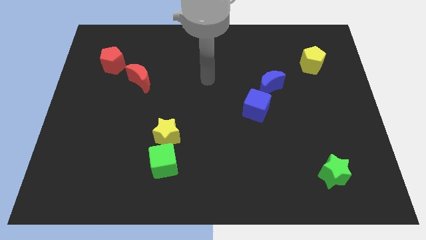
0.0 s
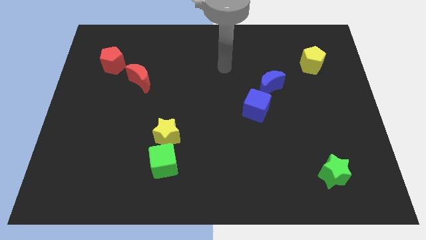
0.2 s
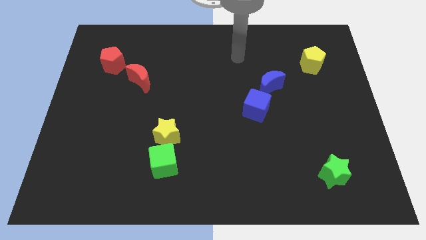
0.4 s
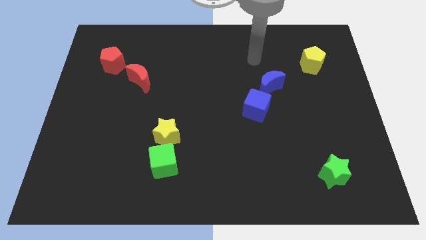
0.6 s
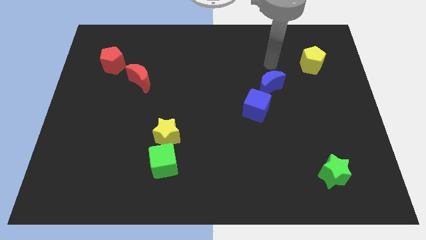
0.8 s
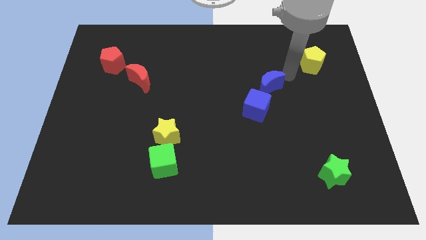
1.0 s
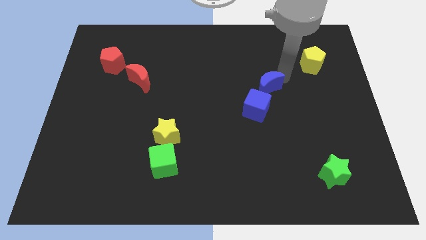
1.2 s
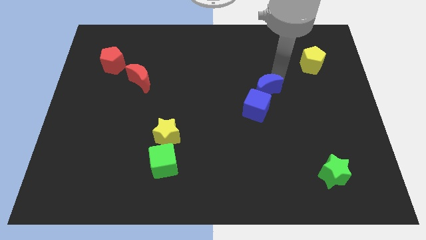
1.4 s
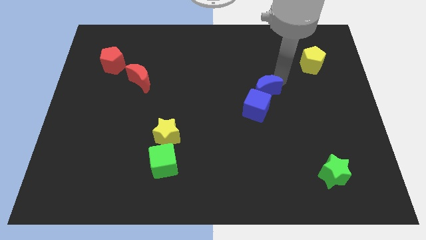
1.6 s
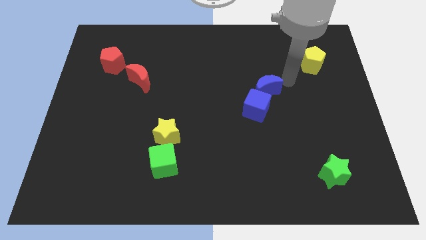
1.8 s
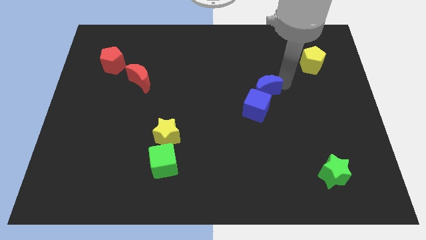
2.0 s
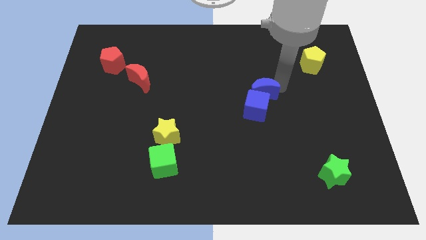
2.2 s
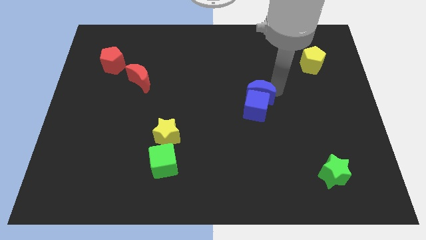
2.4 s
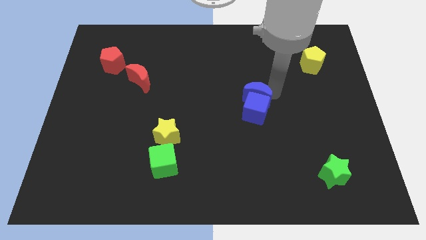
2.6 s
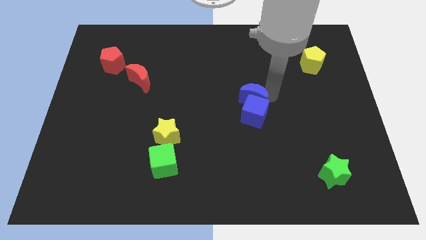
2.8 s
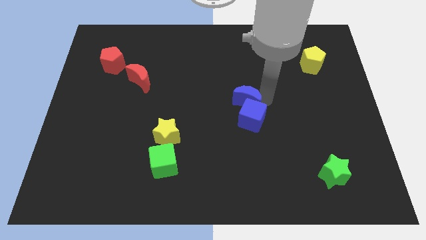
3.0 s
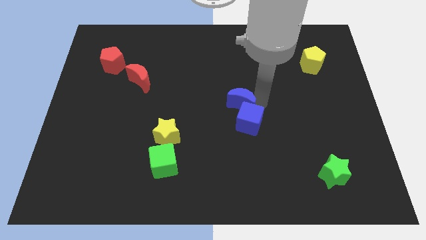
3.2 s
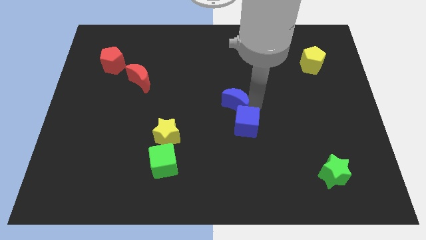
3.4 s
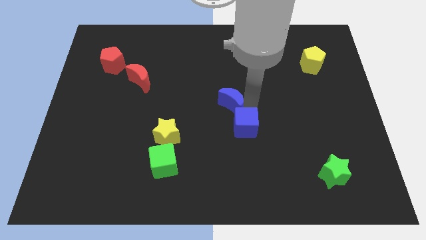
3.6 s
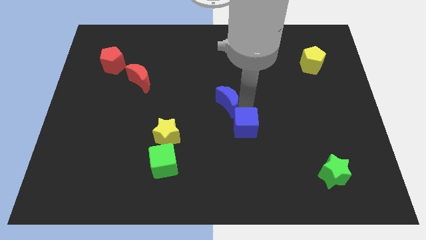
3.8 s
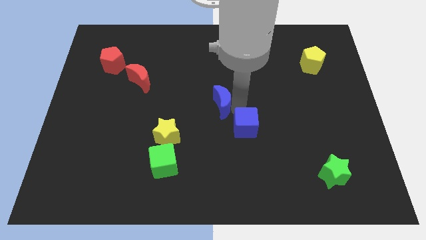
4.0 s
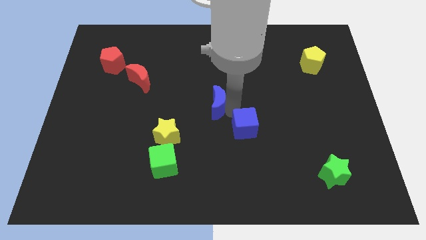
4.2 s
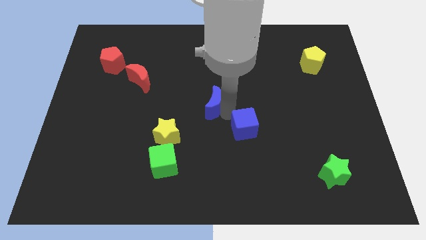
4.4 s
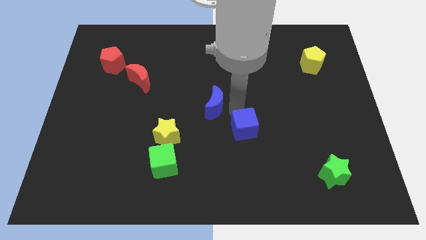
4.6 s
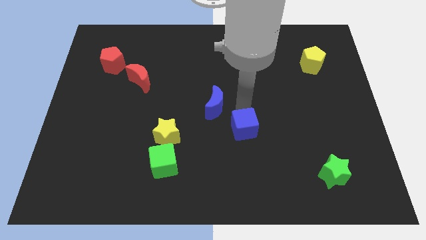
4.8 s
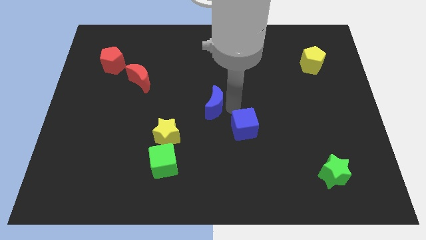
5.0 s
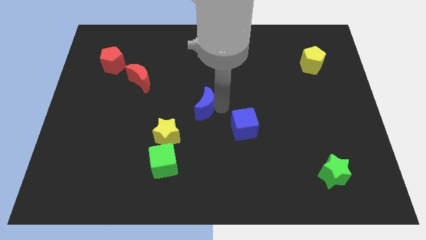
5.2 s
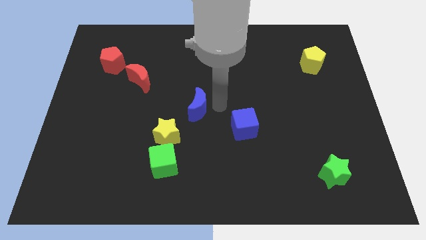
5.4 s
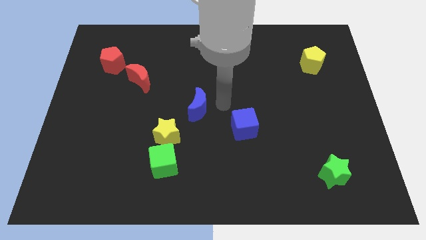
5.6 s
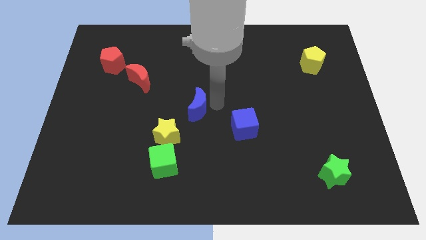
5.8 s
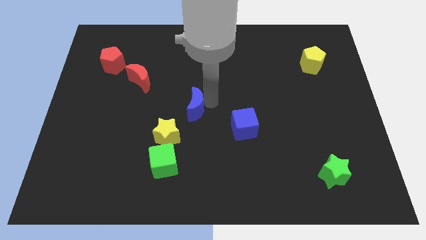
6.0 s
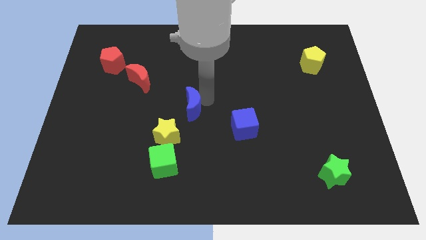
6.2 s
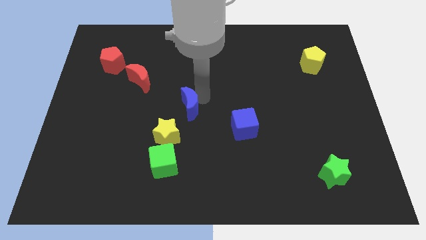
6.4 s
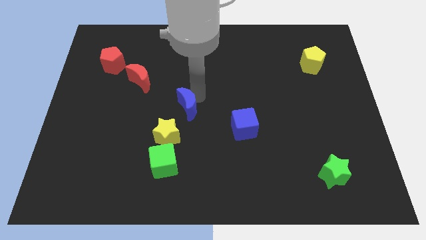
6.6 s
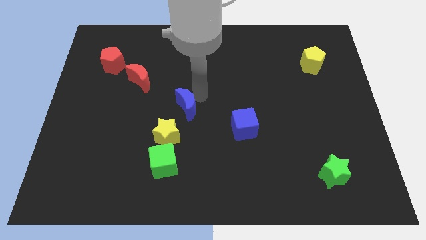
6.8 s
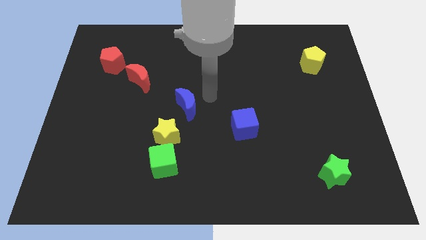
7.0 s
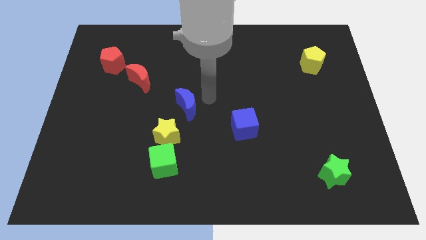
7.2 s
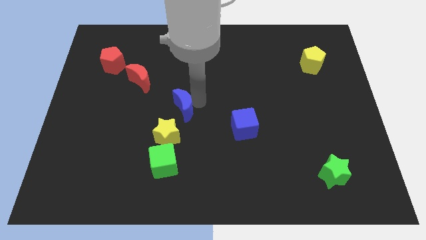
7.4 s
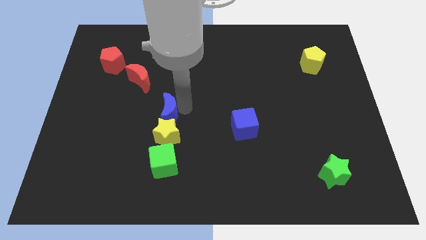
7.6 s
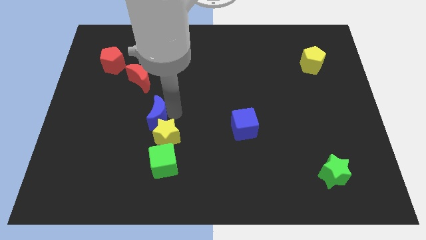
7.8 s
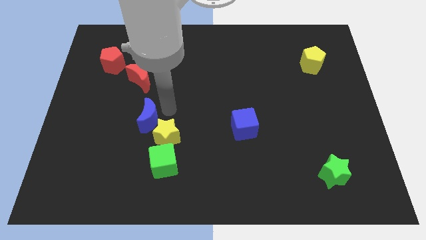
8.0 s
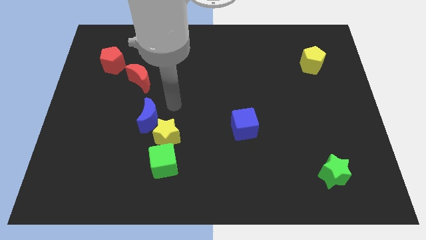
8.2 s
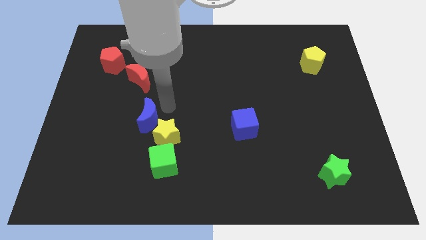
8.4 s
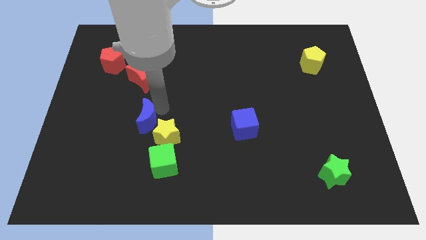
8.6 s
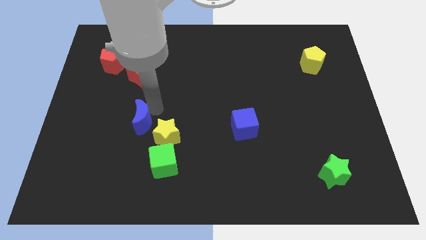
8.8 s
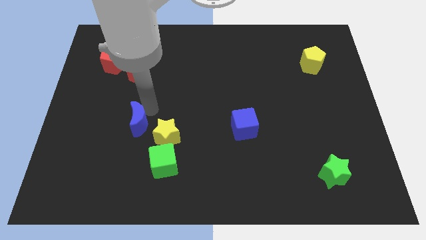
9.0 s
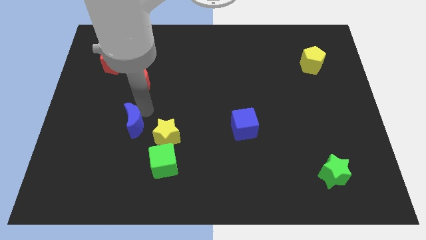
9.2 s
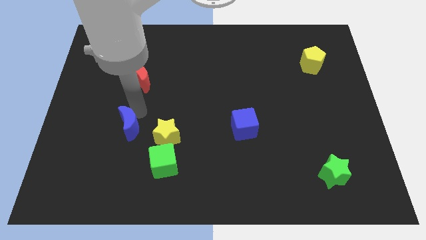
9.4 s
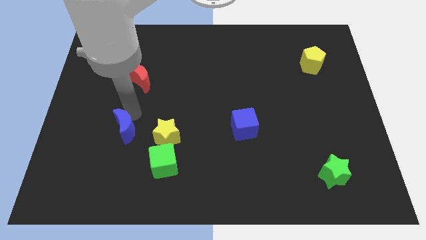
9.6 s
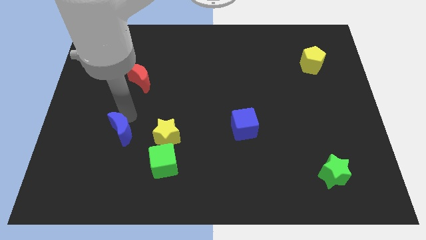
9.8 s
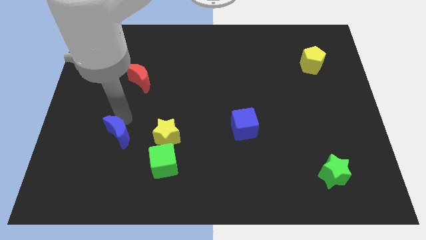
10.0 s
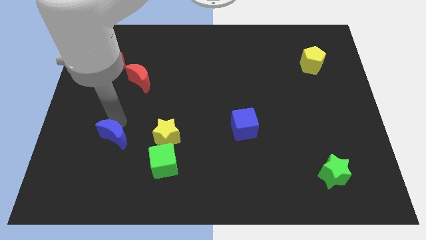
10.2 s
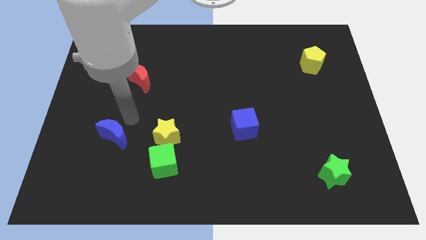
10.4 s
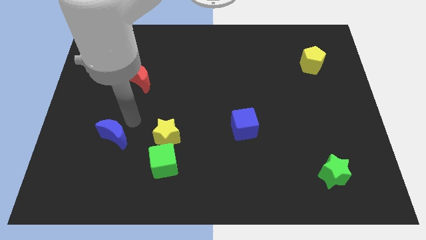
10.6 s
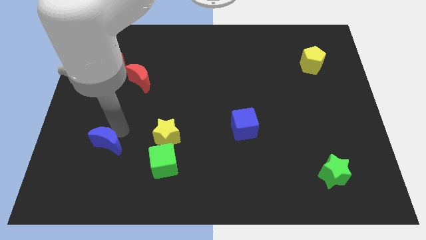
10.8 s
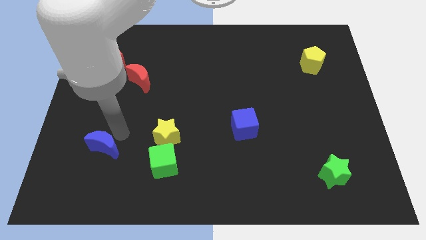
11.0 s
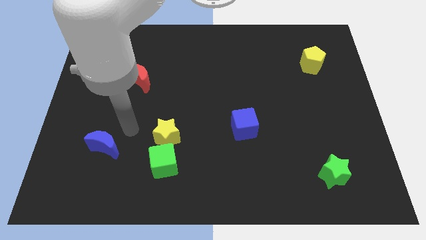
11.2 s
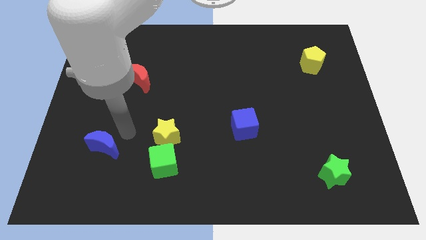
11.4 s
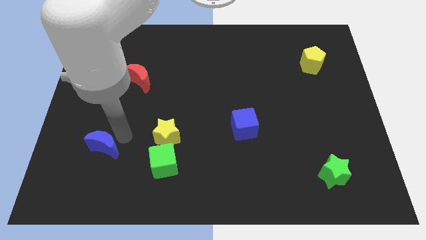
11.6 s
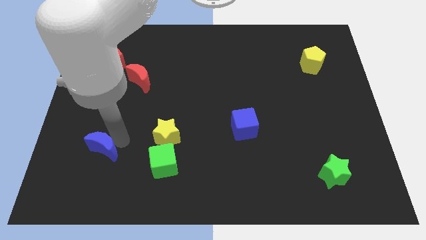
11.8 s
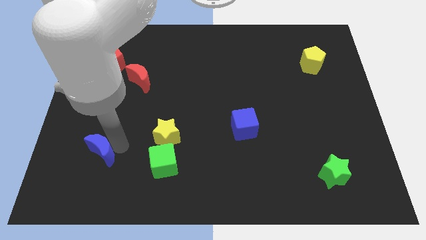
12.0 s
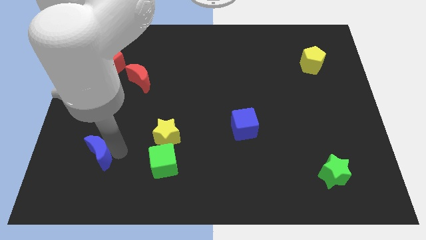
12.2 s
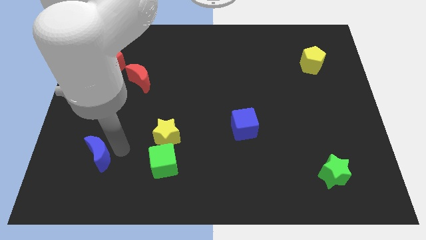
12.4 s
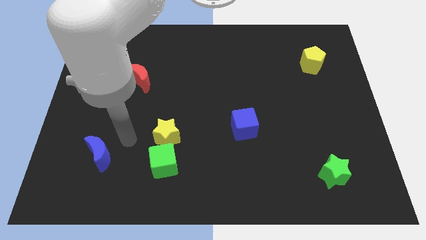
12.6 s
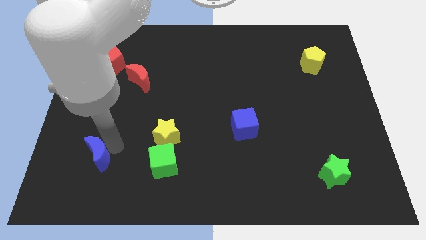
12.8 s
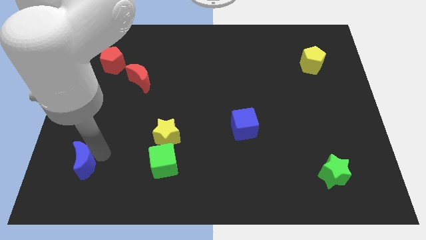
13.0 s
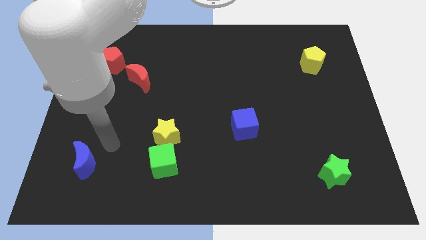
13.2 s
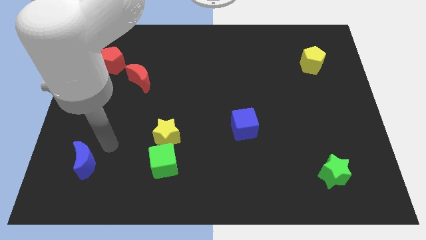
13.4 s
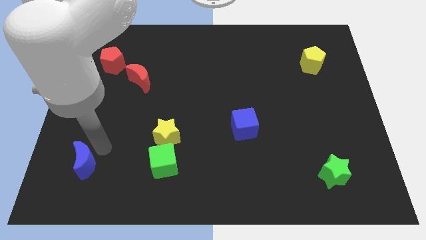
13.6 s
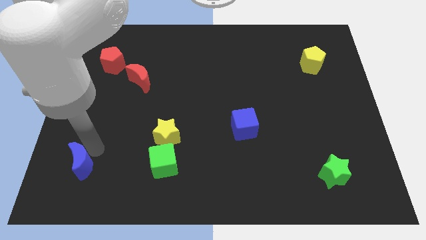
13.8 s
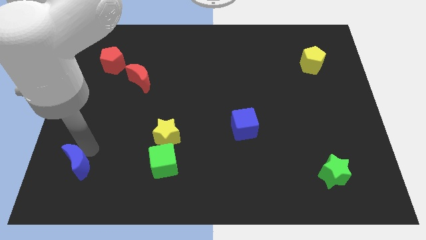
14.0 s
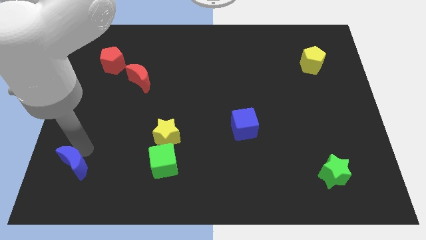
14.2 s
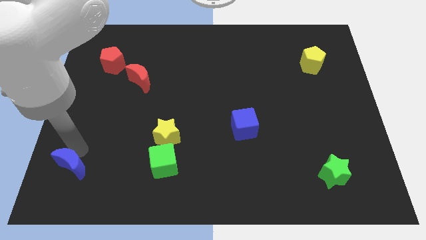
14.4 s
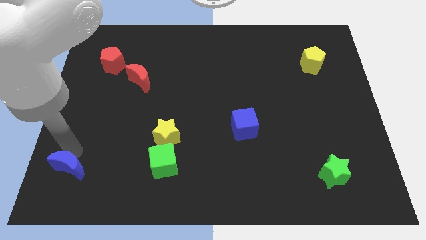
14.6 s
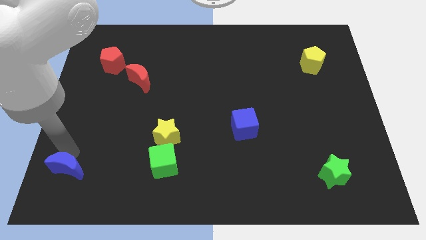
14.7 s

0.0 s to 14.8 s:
push the blue moon to the bottom left of the board
